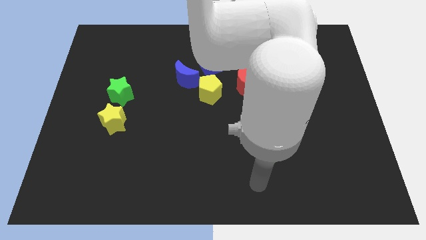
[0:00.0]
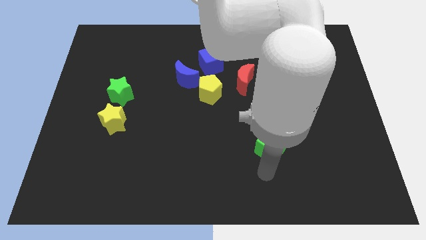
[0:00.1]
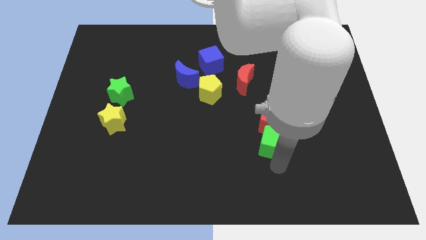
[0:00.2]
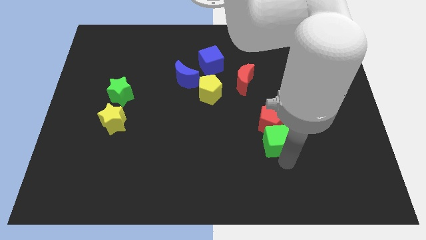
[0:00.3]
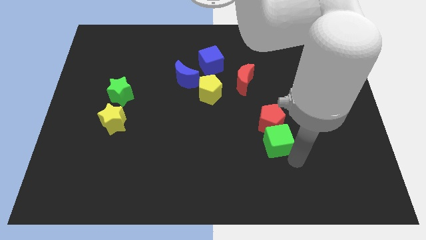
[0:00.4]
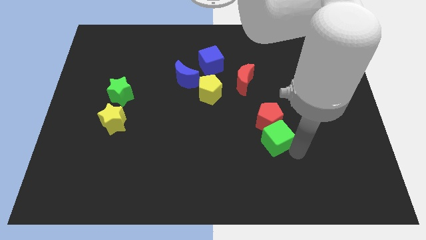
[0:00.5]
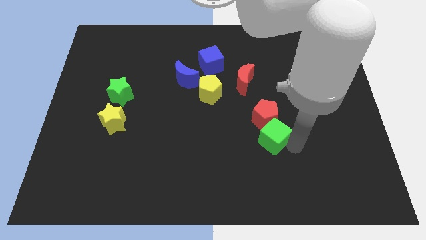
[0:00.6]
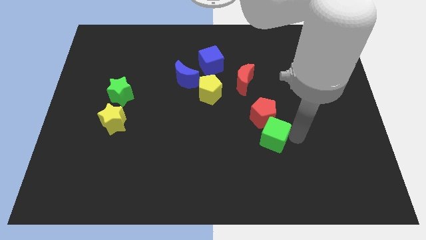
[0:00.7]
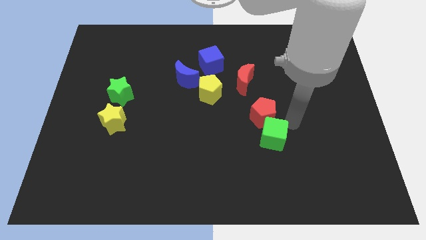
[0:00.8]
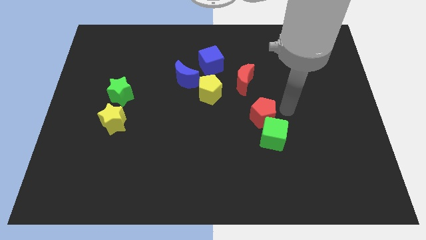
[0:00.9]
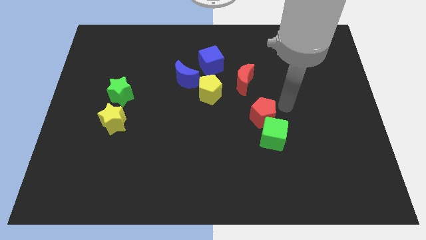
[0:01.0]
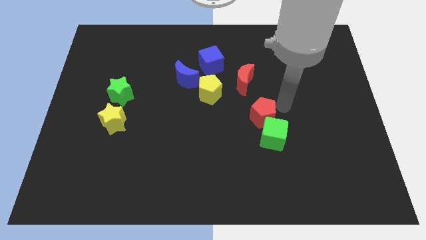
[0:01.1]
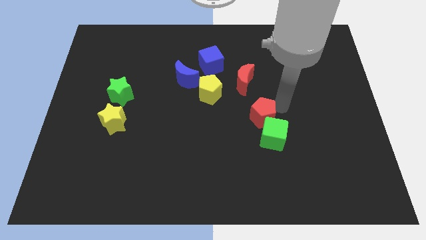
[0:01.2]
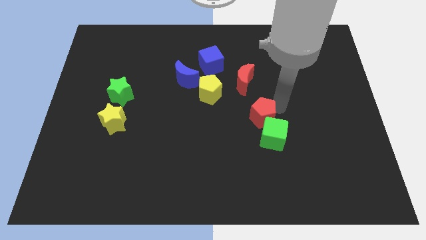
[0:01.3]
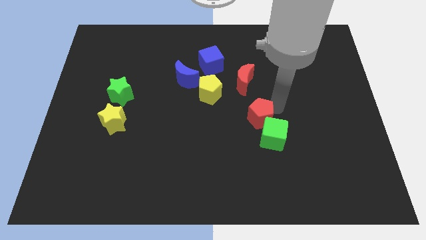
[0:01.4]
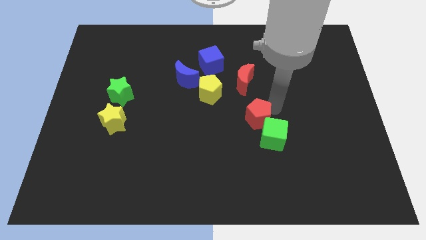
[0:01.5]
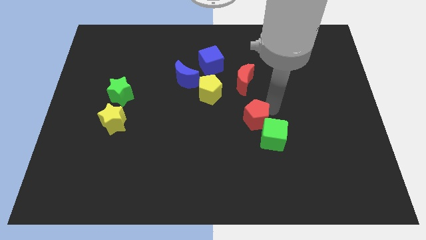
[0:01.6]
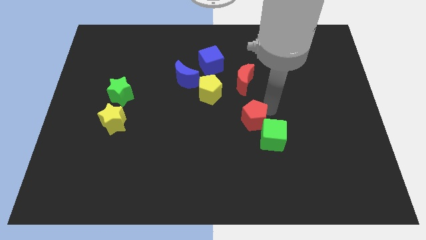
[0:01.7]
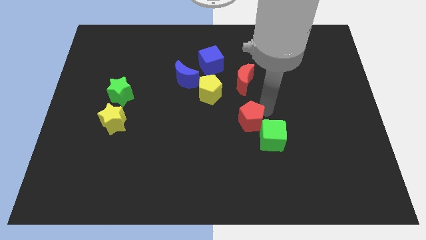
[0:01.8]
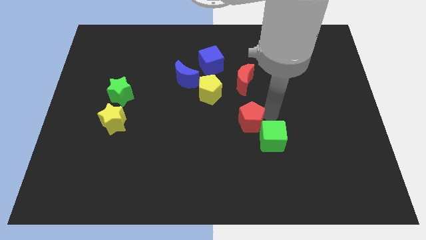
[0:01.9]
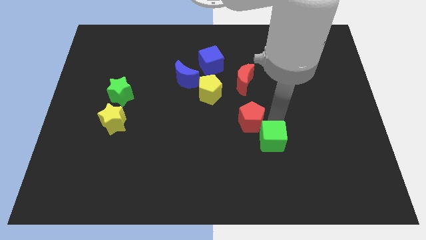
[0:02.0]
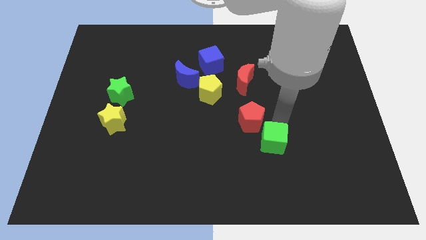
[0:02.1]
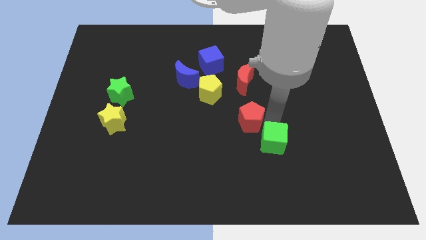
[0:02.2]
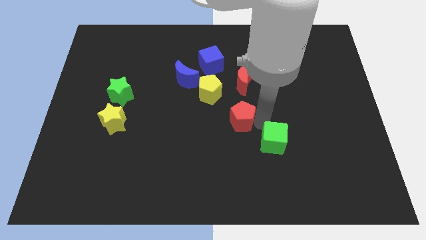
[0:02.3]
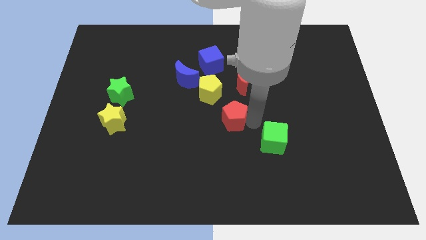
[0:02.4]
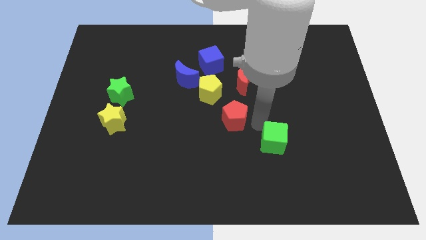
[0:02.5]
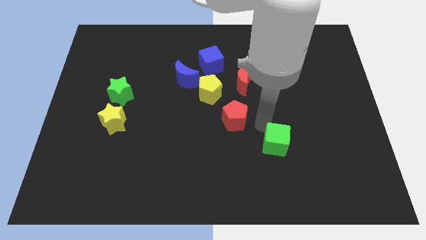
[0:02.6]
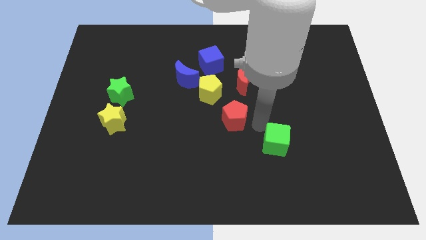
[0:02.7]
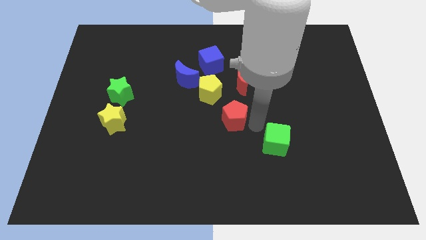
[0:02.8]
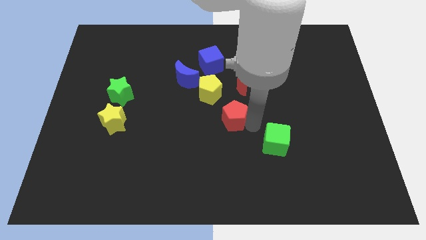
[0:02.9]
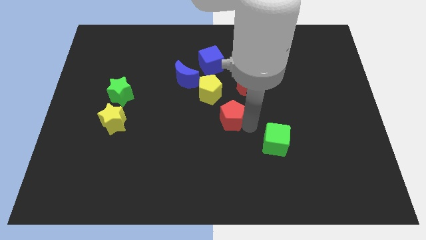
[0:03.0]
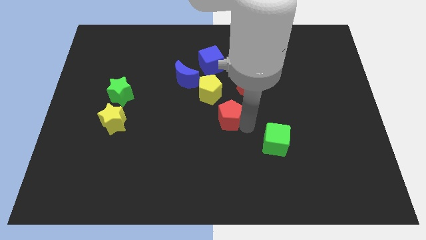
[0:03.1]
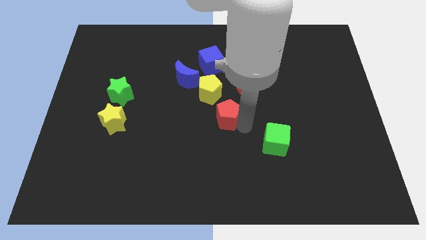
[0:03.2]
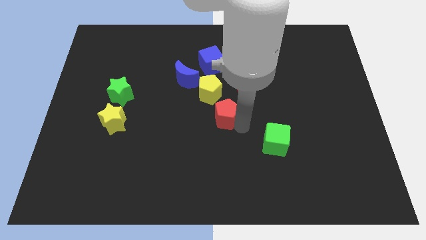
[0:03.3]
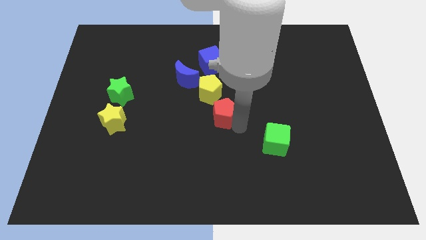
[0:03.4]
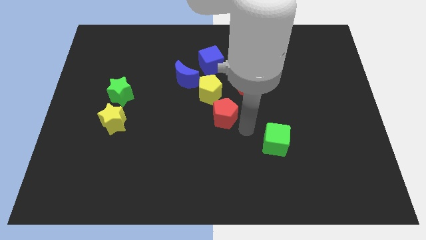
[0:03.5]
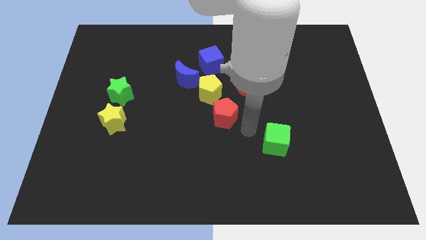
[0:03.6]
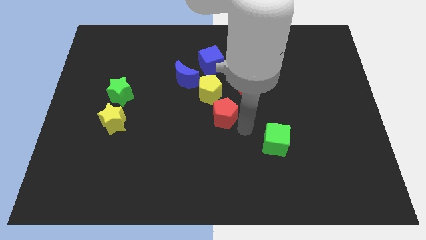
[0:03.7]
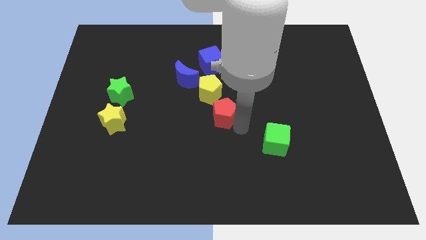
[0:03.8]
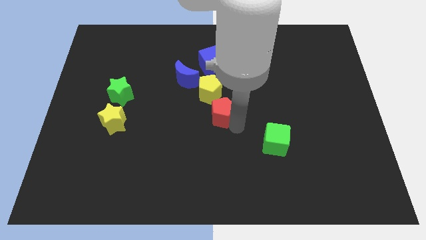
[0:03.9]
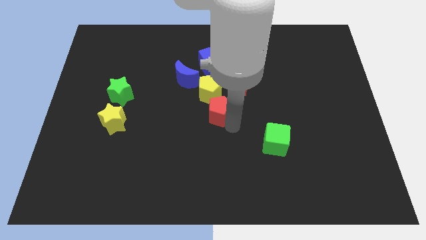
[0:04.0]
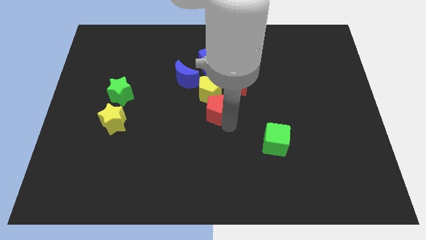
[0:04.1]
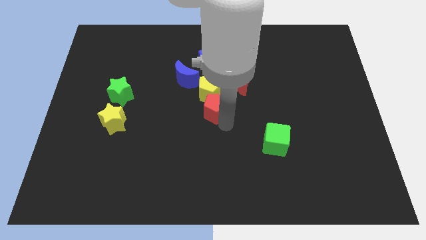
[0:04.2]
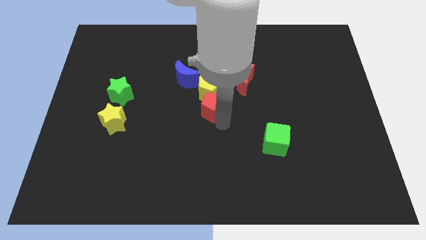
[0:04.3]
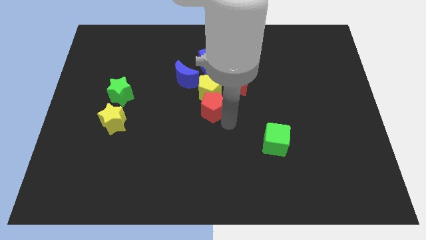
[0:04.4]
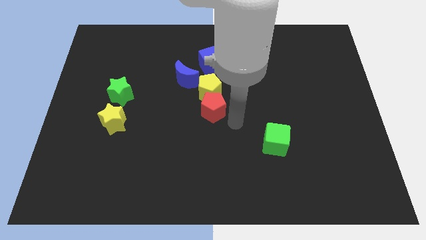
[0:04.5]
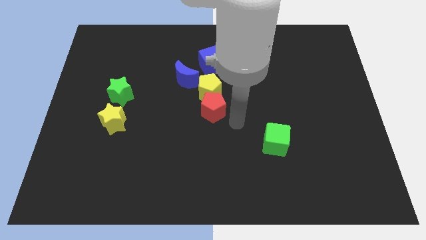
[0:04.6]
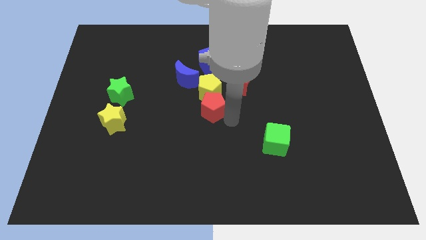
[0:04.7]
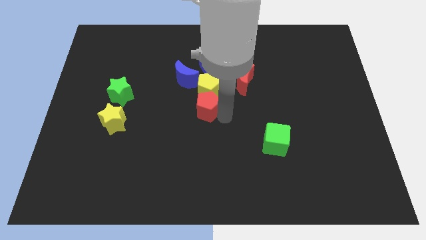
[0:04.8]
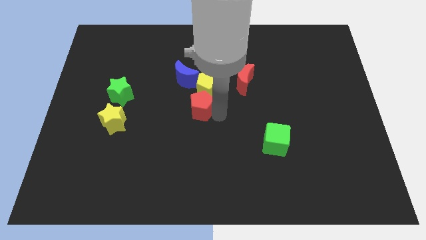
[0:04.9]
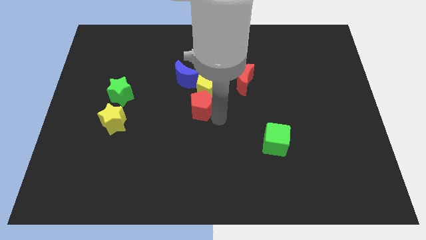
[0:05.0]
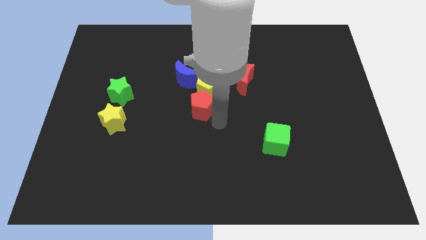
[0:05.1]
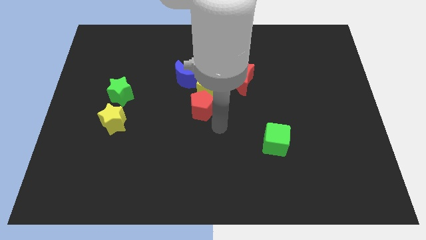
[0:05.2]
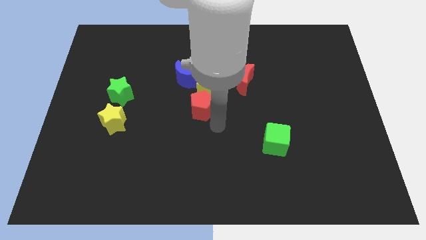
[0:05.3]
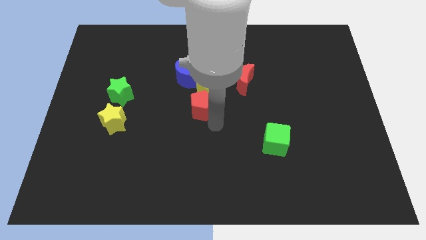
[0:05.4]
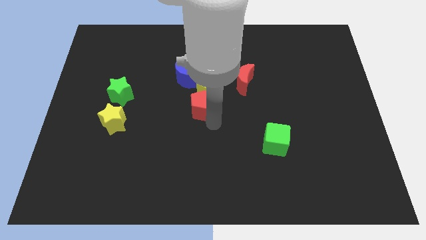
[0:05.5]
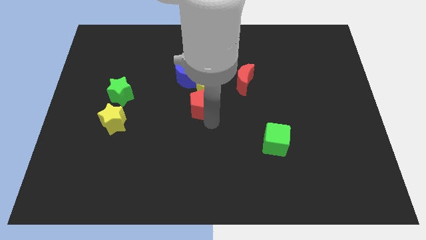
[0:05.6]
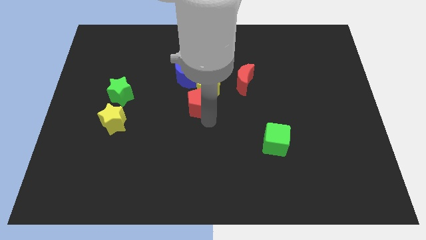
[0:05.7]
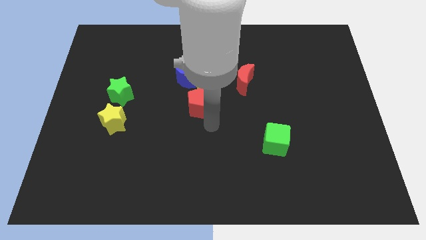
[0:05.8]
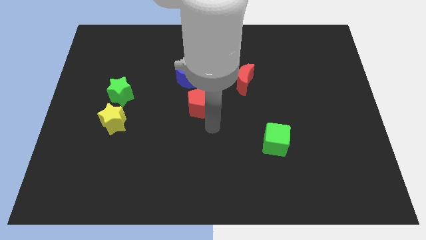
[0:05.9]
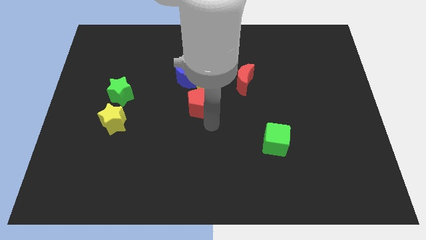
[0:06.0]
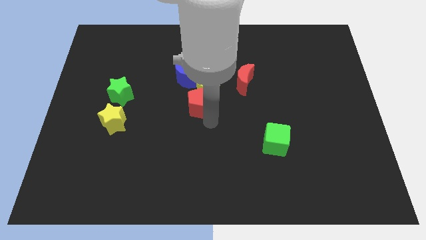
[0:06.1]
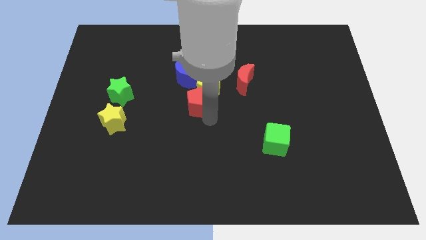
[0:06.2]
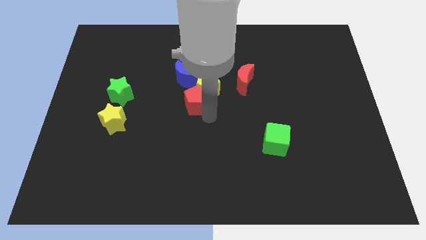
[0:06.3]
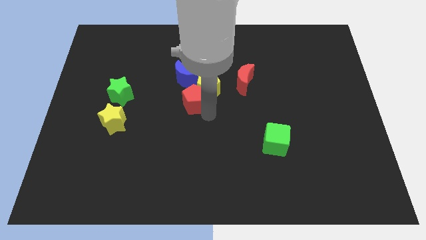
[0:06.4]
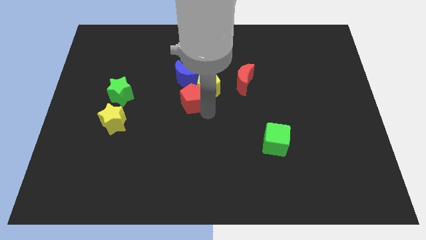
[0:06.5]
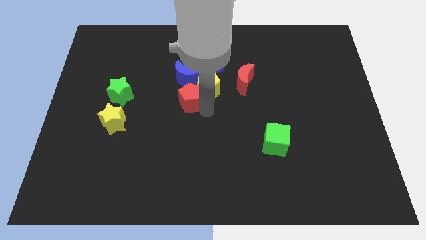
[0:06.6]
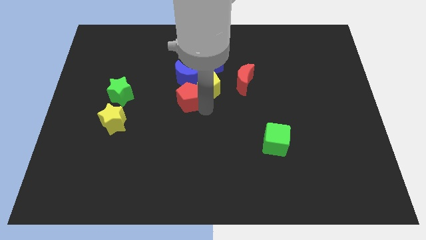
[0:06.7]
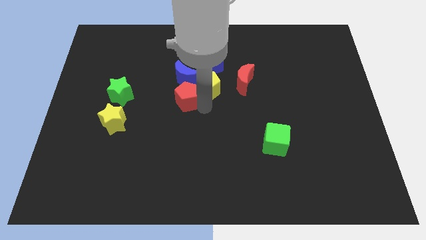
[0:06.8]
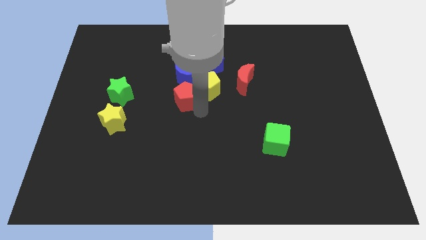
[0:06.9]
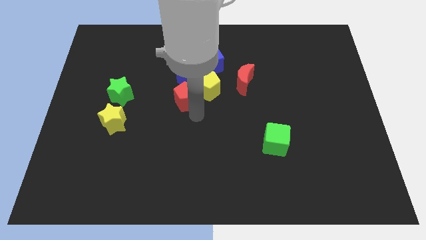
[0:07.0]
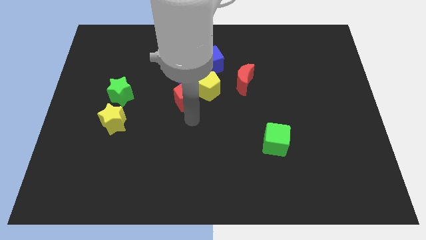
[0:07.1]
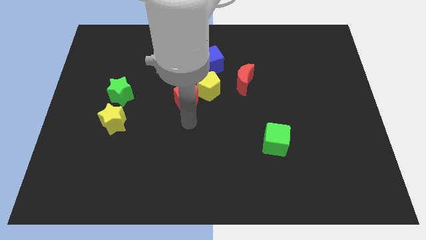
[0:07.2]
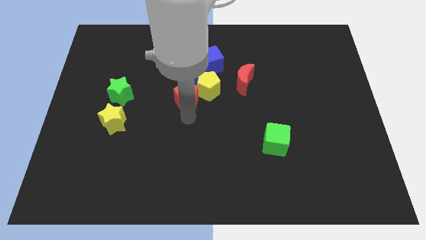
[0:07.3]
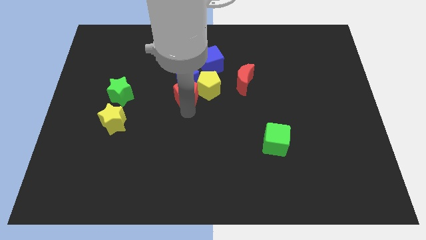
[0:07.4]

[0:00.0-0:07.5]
put the red pentagon next to the blue moon
